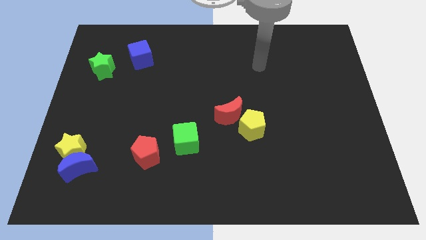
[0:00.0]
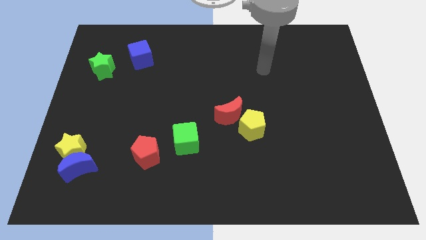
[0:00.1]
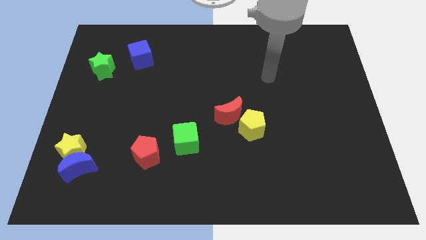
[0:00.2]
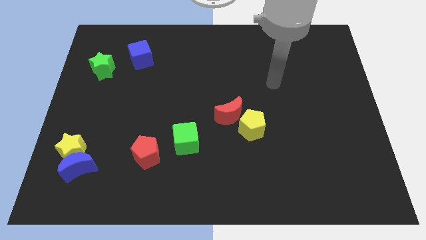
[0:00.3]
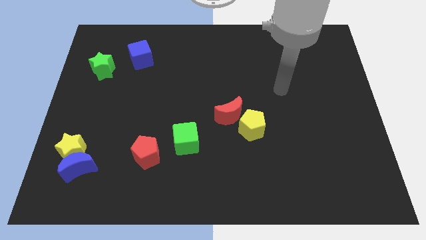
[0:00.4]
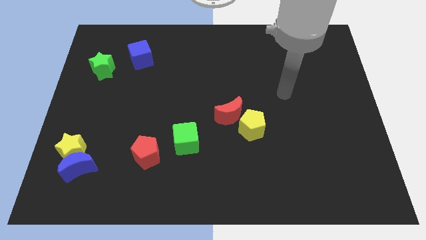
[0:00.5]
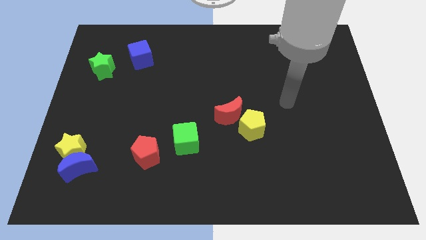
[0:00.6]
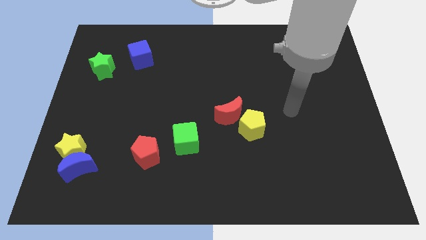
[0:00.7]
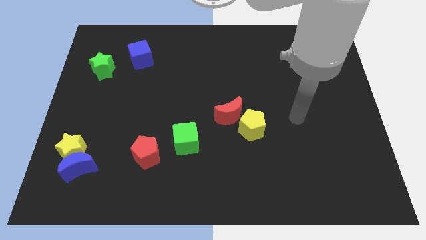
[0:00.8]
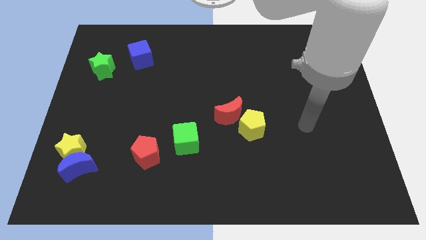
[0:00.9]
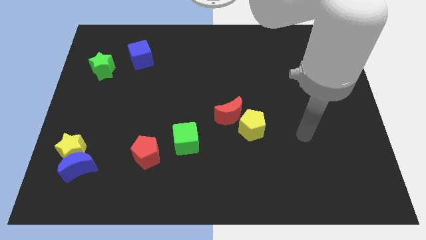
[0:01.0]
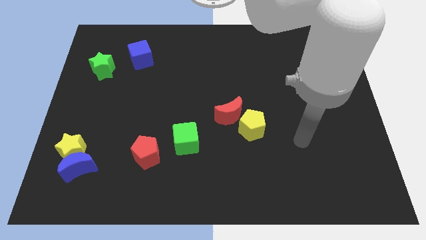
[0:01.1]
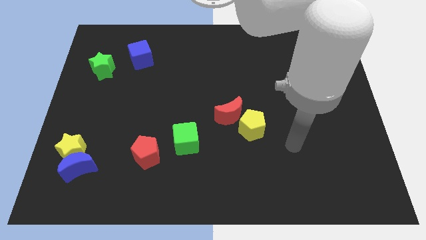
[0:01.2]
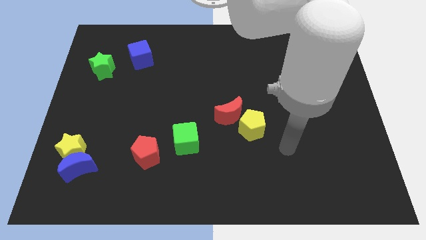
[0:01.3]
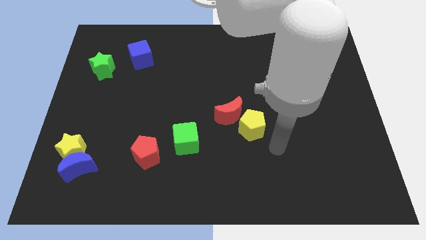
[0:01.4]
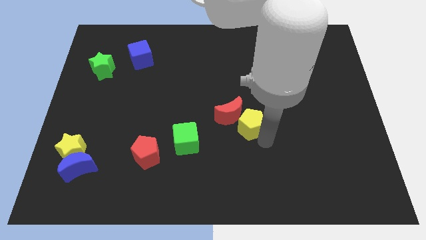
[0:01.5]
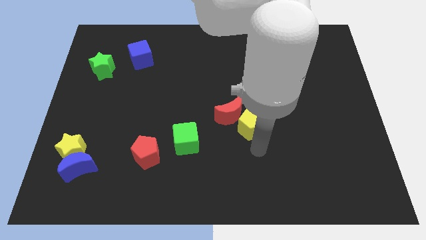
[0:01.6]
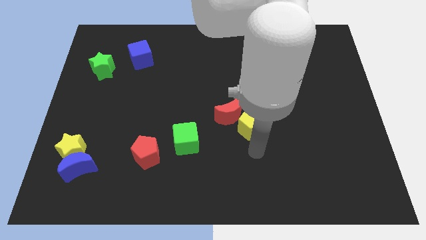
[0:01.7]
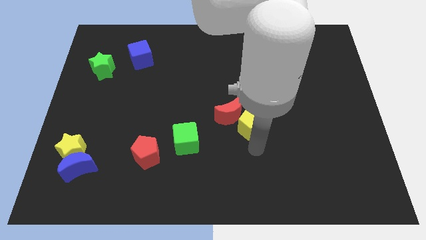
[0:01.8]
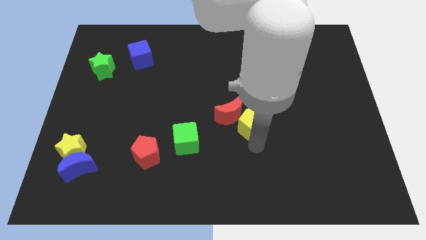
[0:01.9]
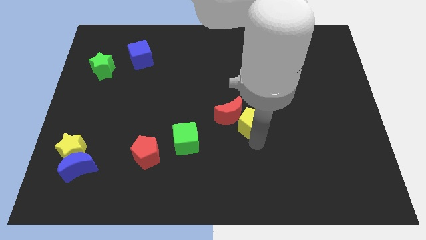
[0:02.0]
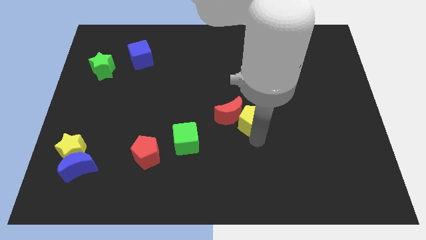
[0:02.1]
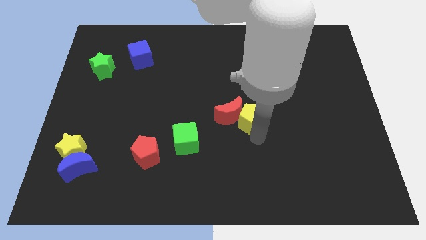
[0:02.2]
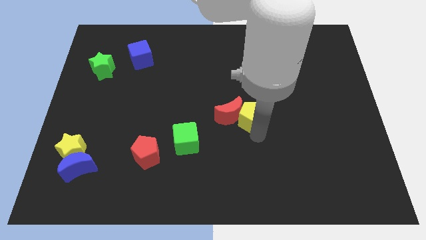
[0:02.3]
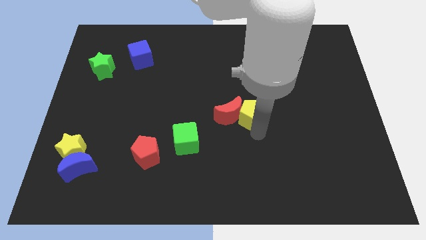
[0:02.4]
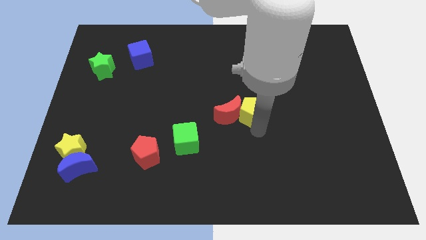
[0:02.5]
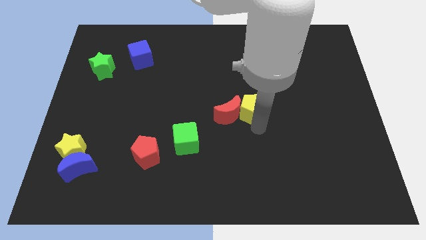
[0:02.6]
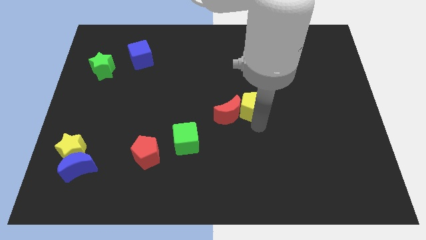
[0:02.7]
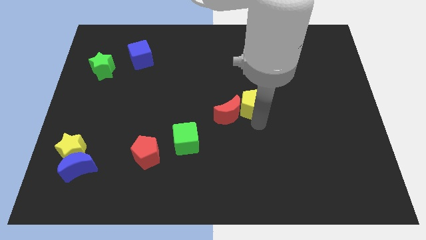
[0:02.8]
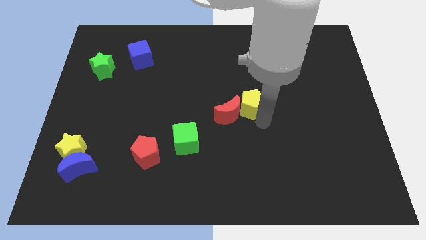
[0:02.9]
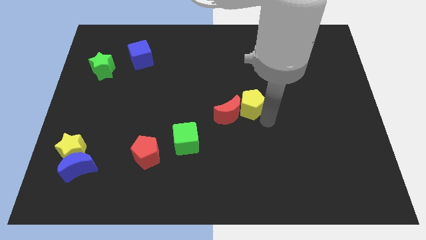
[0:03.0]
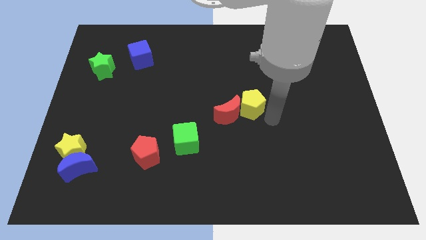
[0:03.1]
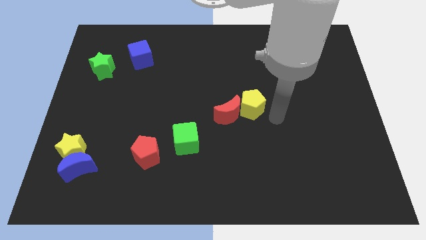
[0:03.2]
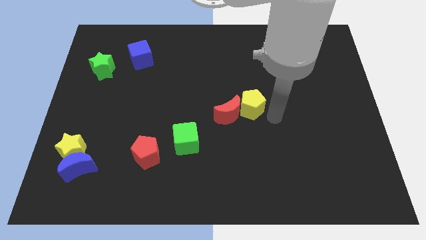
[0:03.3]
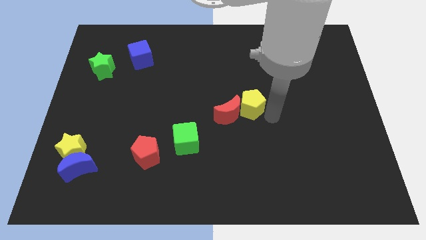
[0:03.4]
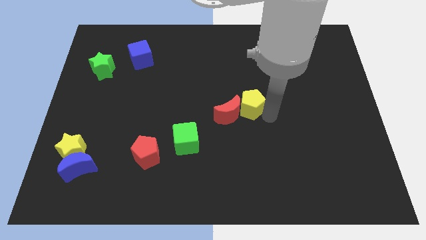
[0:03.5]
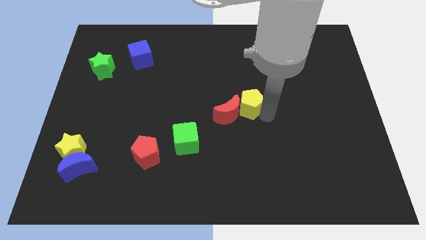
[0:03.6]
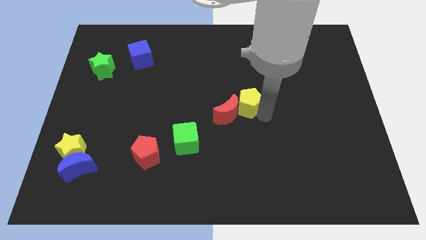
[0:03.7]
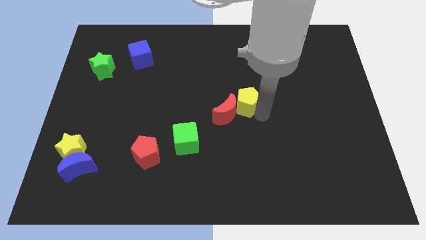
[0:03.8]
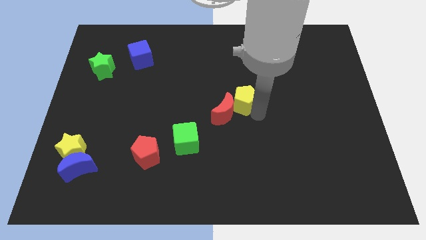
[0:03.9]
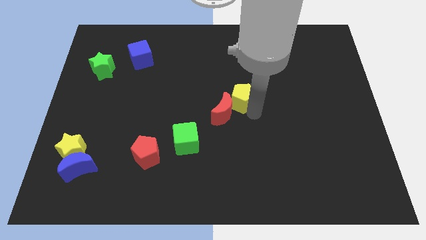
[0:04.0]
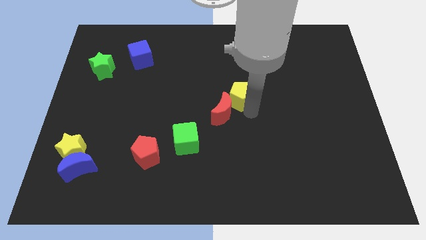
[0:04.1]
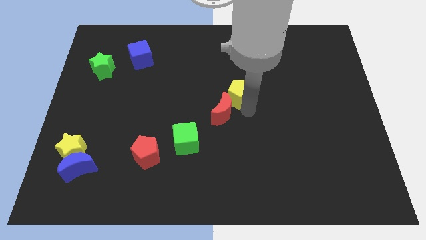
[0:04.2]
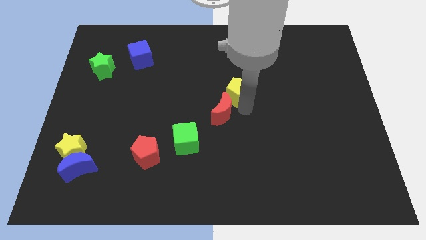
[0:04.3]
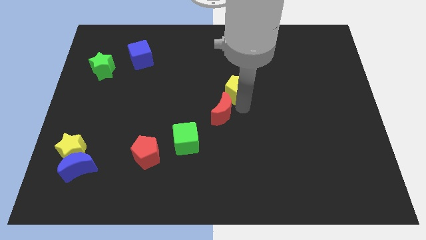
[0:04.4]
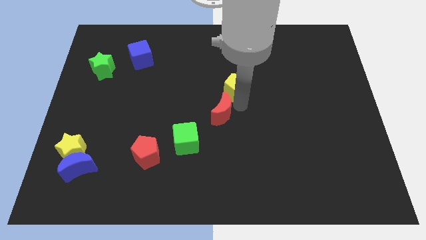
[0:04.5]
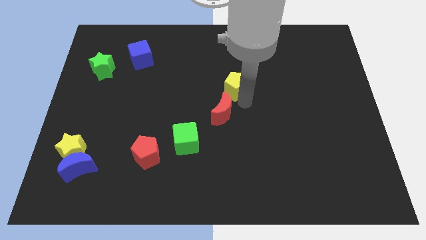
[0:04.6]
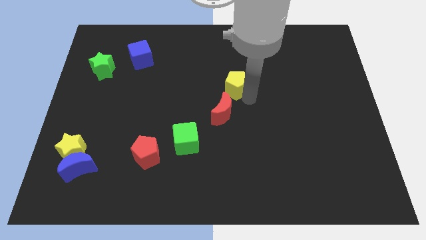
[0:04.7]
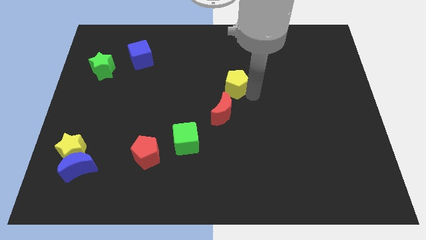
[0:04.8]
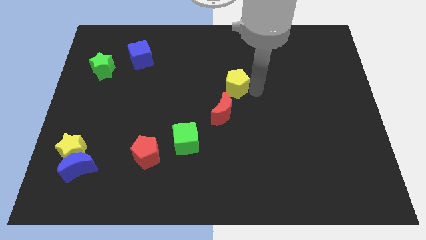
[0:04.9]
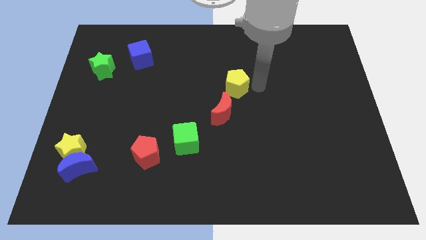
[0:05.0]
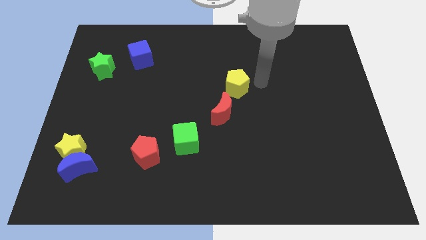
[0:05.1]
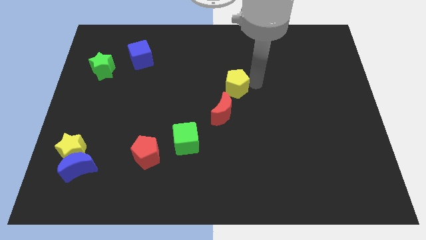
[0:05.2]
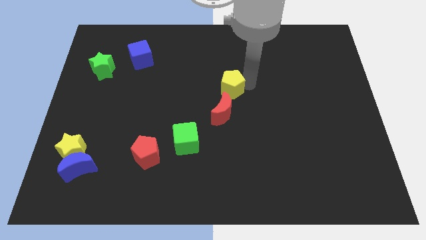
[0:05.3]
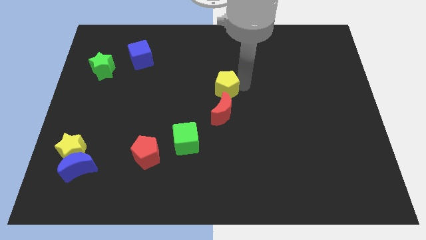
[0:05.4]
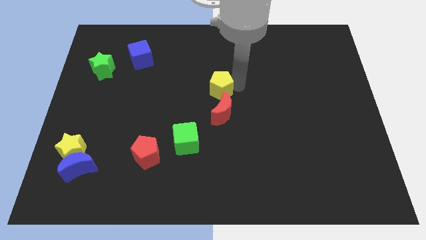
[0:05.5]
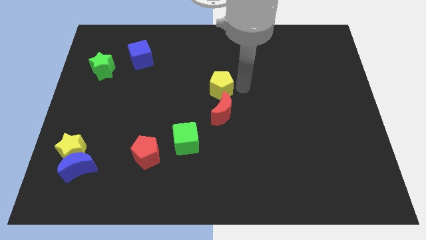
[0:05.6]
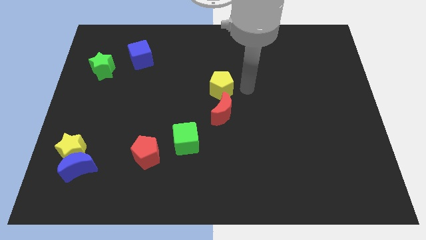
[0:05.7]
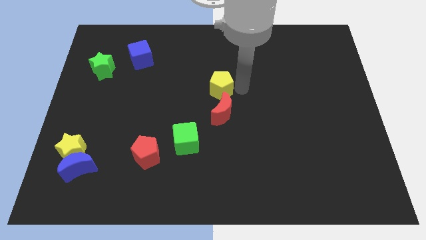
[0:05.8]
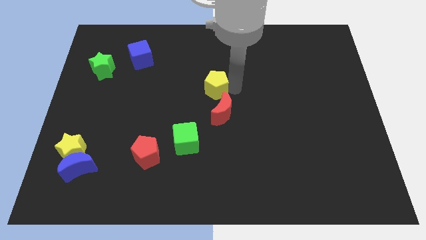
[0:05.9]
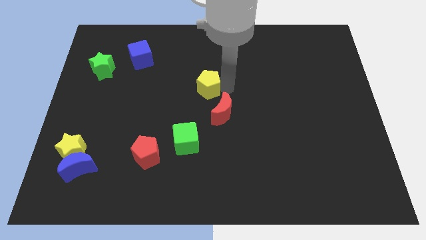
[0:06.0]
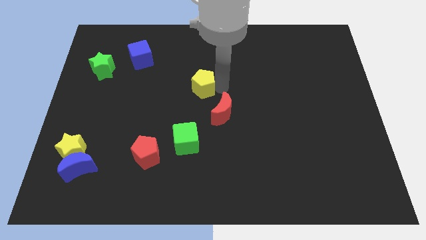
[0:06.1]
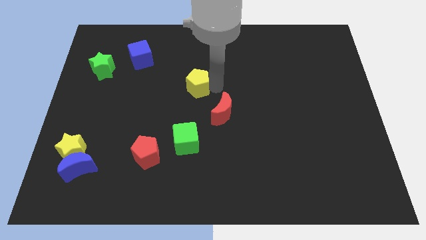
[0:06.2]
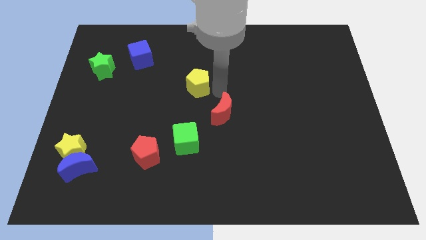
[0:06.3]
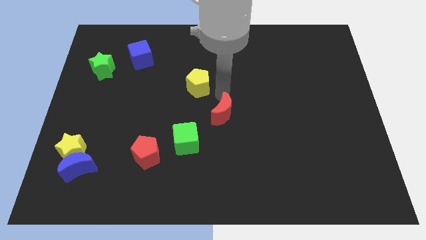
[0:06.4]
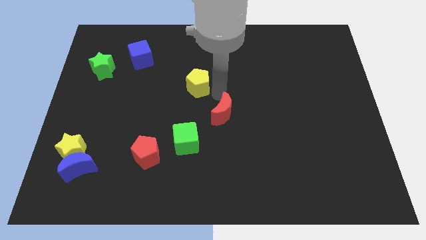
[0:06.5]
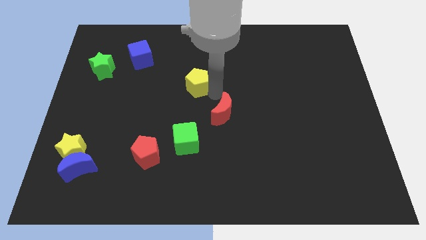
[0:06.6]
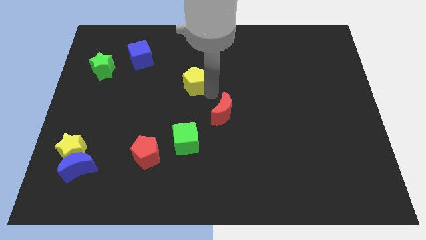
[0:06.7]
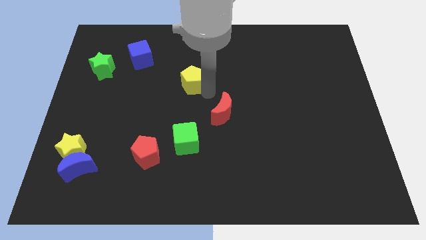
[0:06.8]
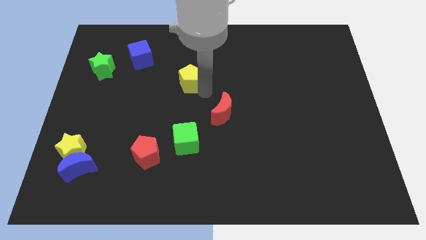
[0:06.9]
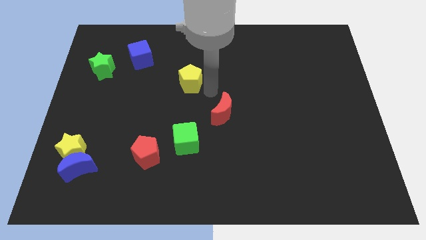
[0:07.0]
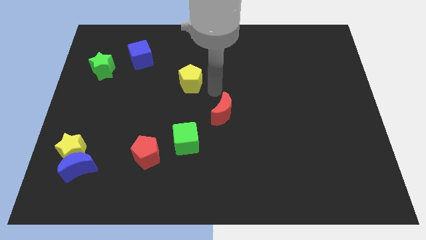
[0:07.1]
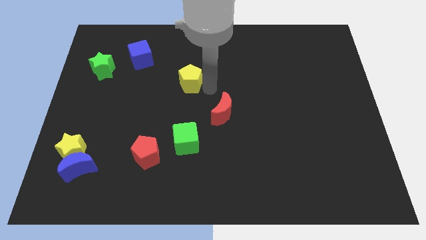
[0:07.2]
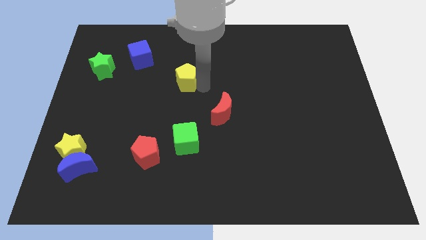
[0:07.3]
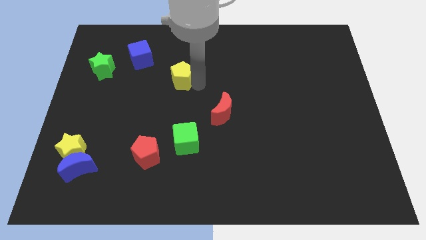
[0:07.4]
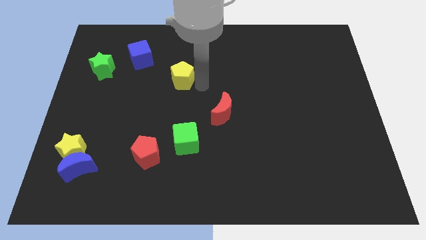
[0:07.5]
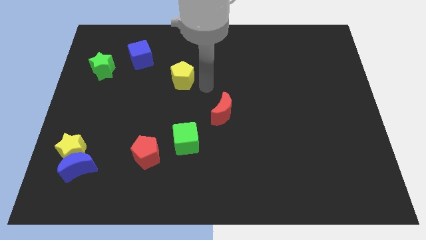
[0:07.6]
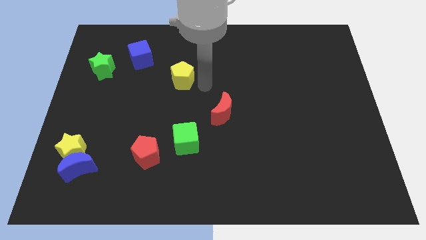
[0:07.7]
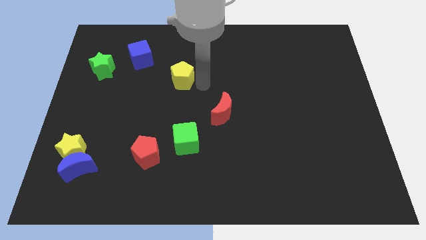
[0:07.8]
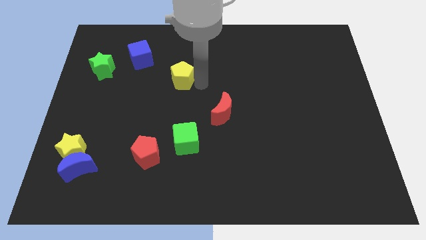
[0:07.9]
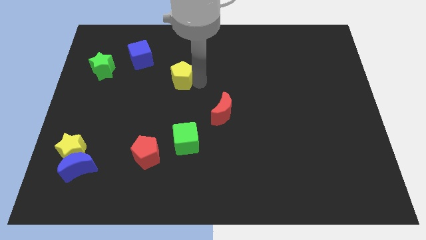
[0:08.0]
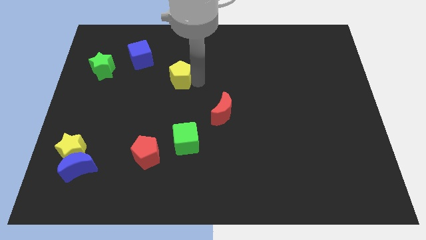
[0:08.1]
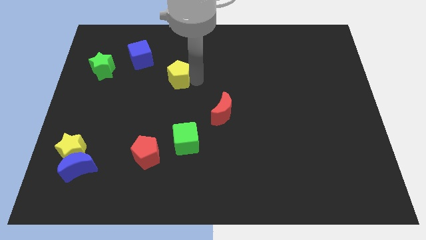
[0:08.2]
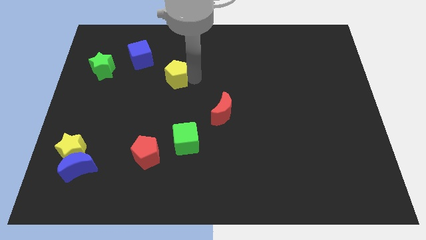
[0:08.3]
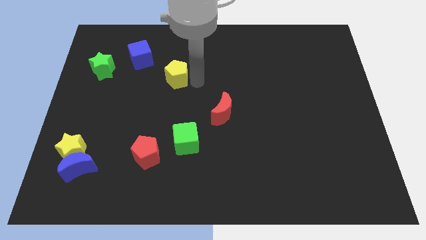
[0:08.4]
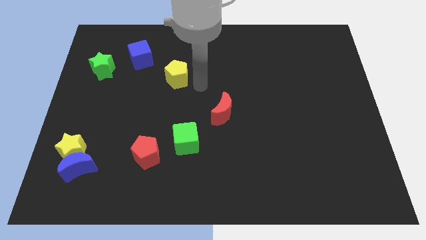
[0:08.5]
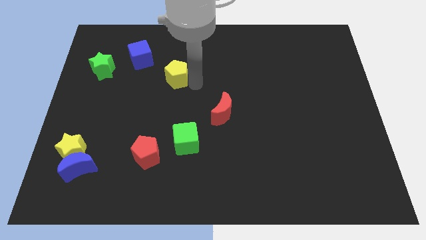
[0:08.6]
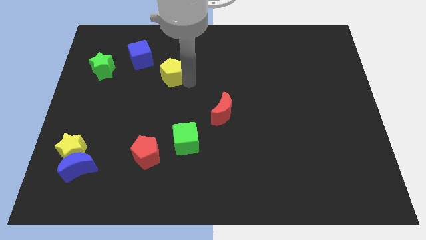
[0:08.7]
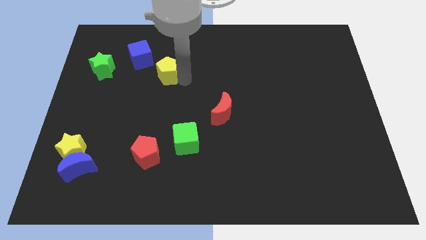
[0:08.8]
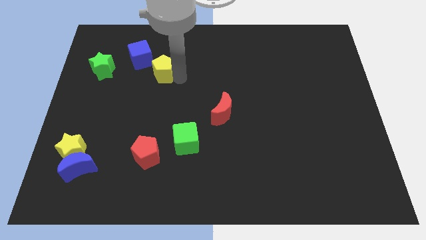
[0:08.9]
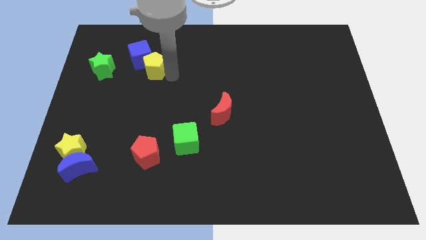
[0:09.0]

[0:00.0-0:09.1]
put the yellow pentagon close to the blue cube
